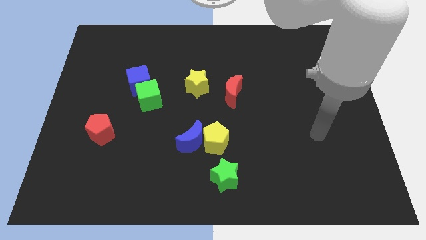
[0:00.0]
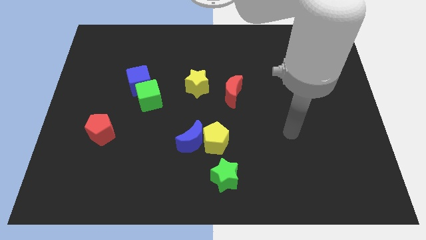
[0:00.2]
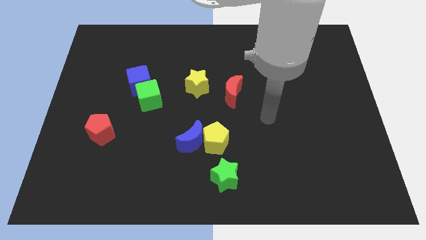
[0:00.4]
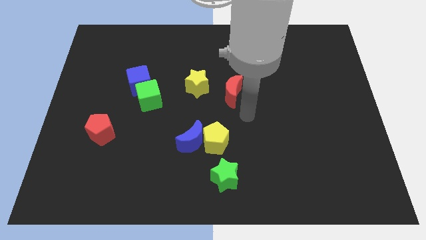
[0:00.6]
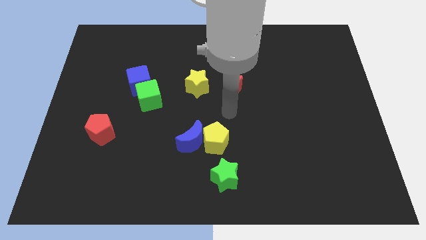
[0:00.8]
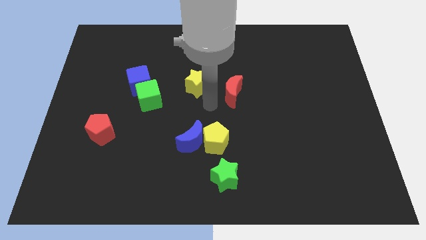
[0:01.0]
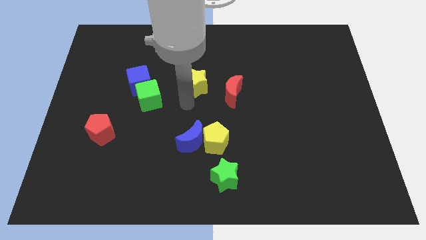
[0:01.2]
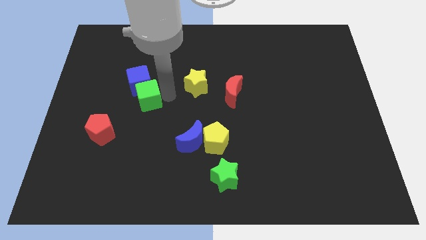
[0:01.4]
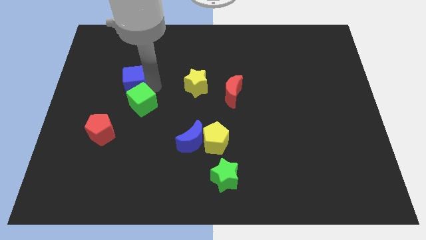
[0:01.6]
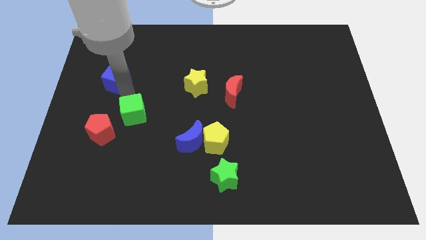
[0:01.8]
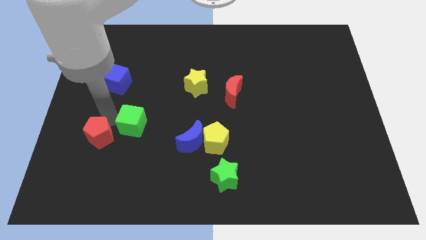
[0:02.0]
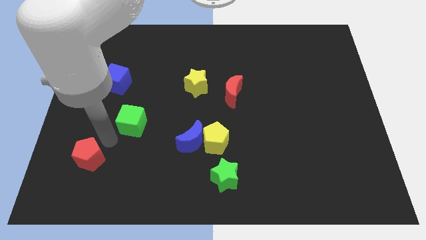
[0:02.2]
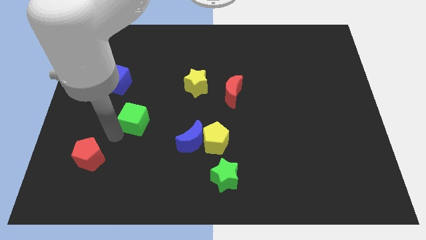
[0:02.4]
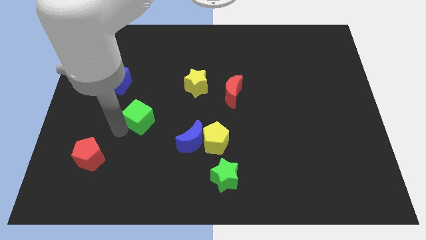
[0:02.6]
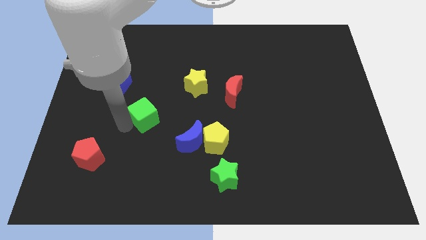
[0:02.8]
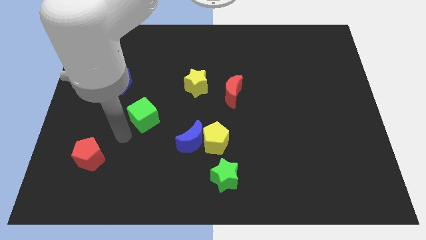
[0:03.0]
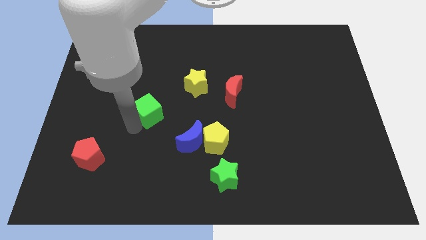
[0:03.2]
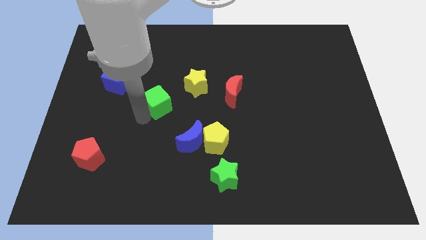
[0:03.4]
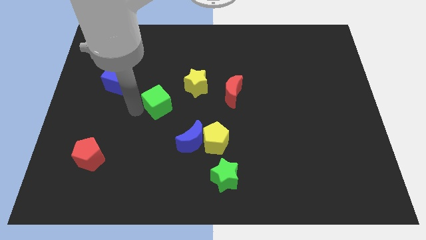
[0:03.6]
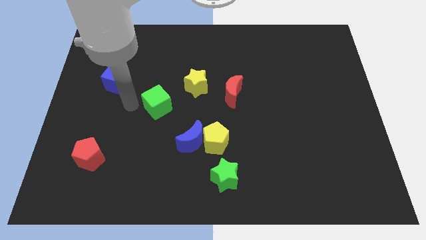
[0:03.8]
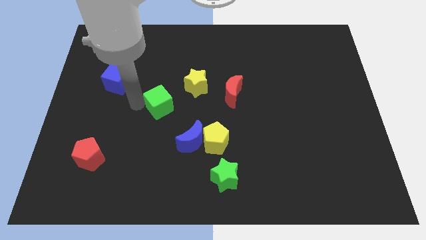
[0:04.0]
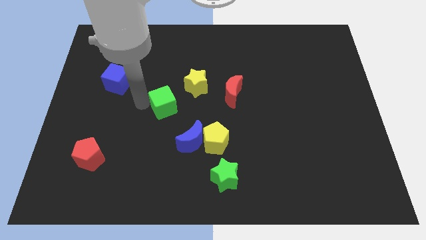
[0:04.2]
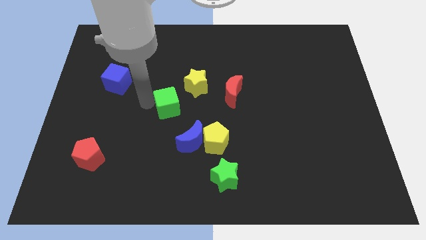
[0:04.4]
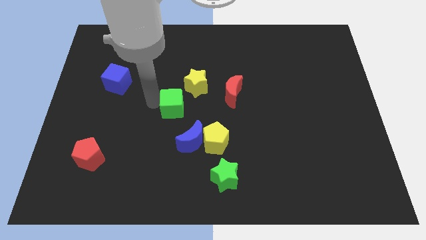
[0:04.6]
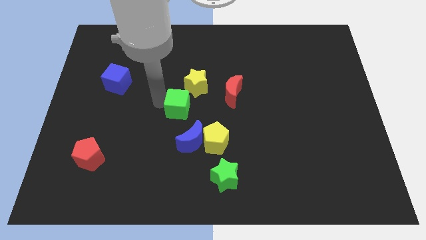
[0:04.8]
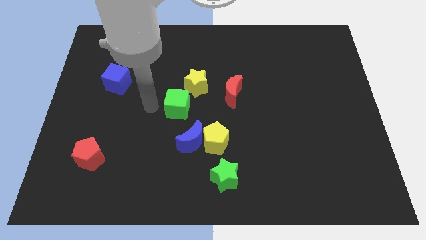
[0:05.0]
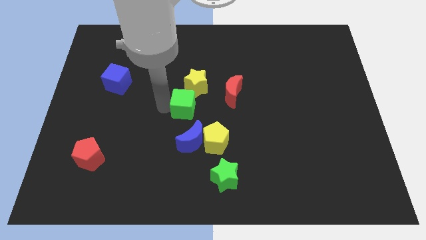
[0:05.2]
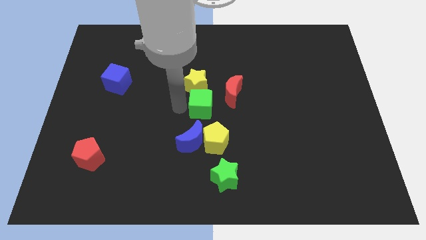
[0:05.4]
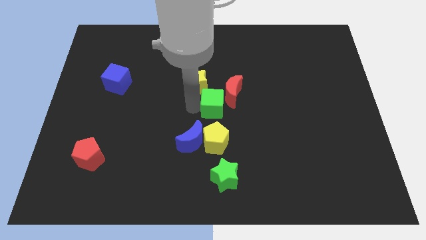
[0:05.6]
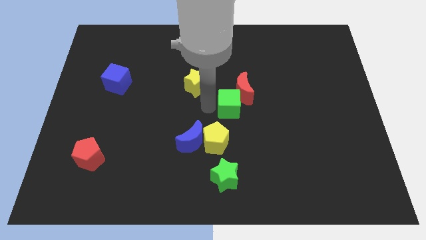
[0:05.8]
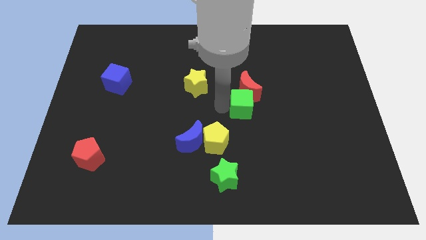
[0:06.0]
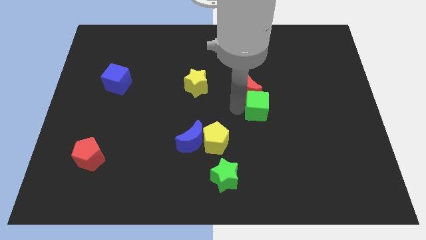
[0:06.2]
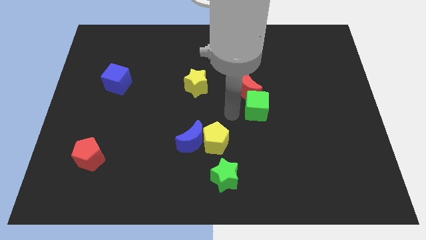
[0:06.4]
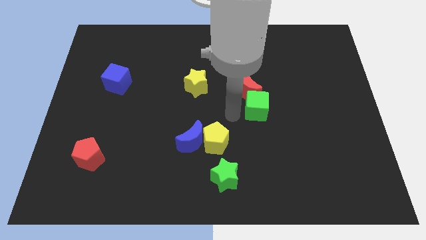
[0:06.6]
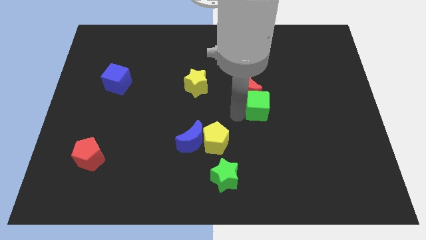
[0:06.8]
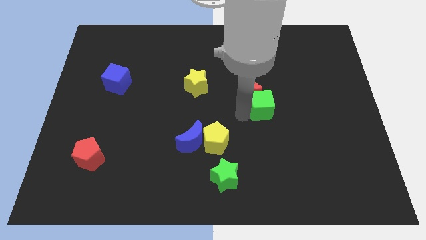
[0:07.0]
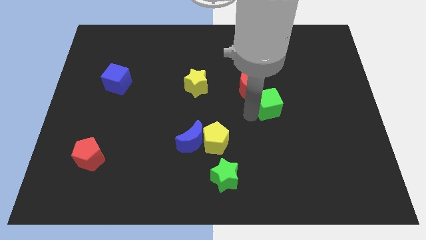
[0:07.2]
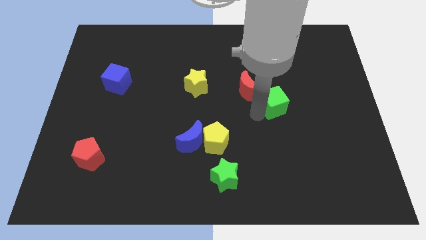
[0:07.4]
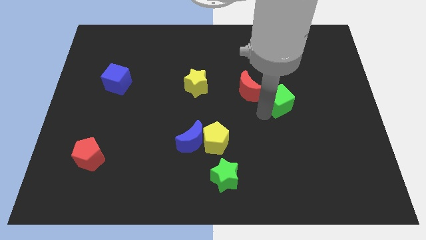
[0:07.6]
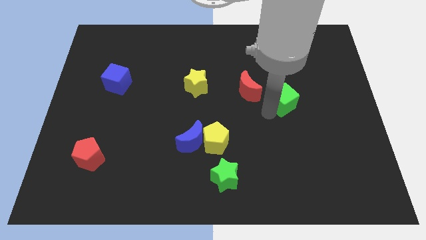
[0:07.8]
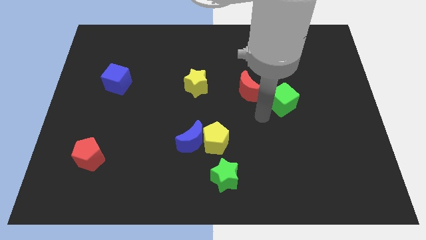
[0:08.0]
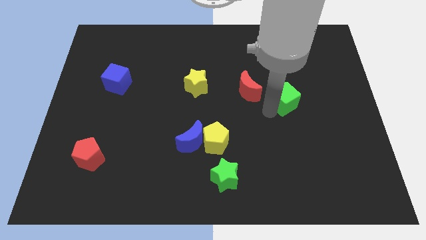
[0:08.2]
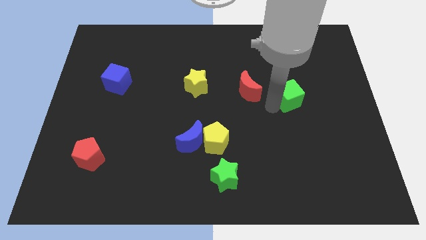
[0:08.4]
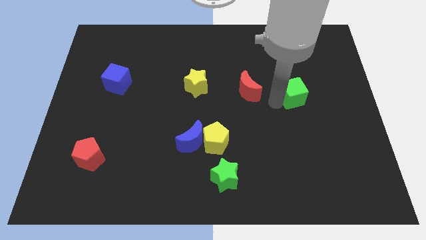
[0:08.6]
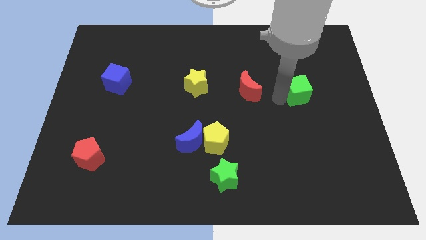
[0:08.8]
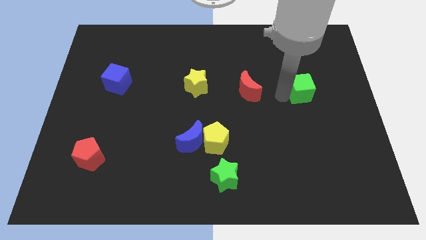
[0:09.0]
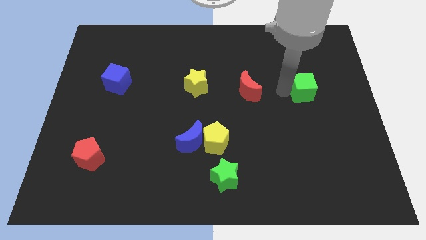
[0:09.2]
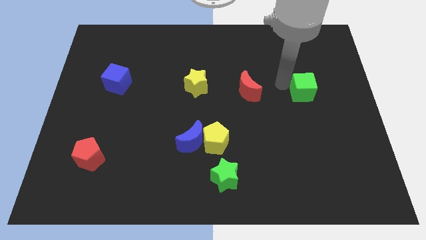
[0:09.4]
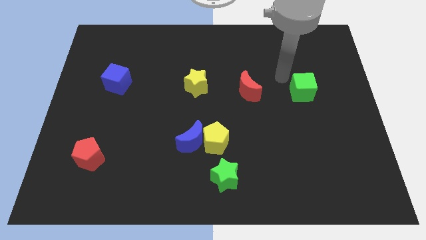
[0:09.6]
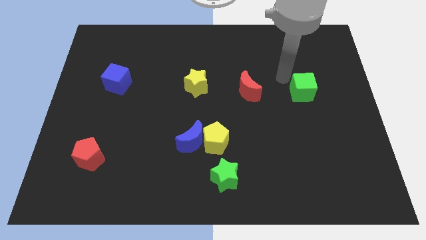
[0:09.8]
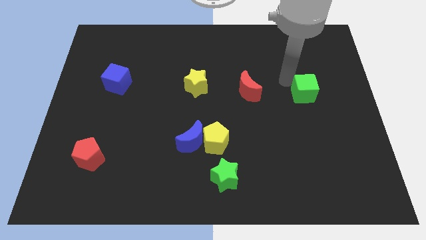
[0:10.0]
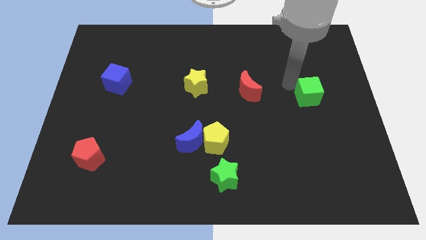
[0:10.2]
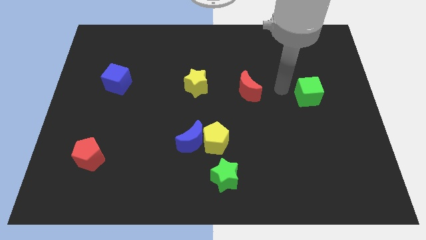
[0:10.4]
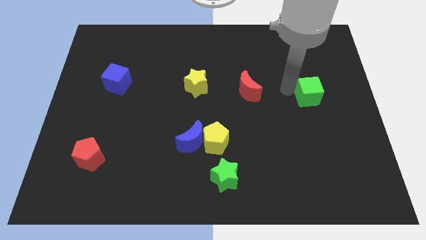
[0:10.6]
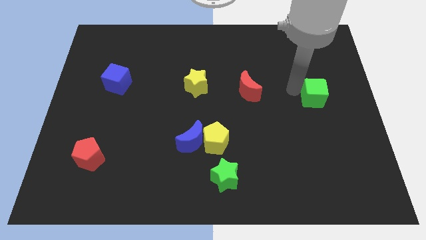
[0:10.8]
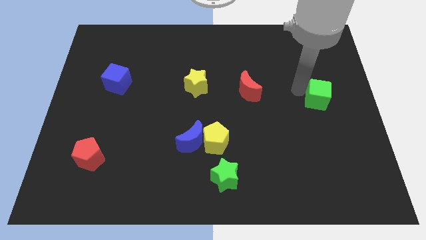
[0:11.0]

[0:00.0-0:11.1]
put the green cube to the right side
